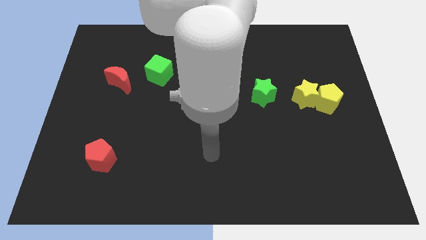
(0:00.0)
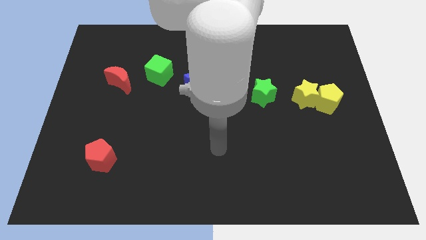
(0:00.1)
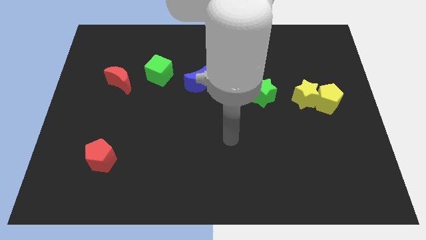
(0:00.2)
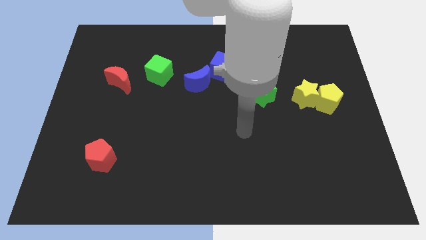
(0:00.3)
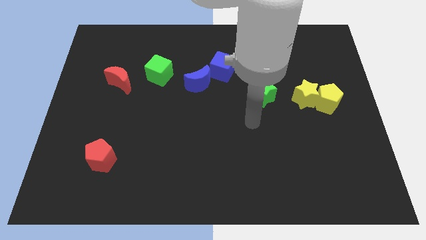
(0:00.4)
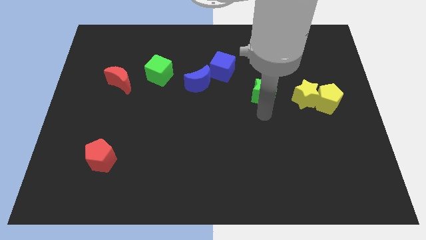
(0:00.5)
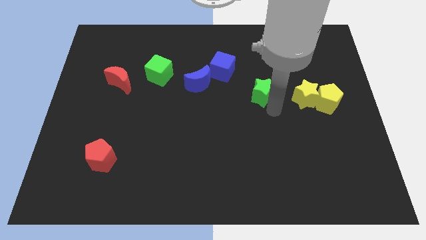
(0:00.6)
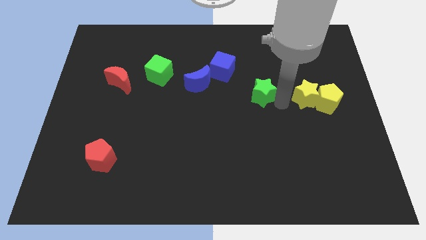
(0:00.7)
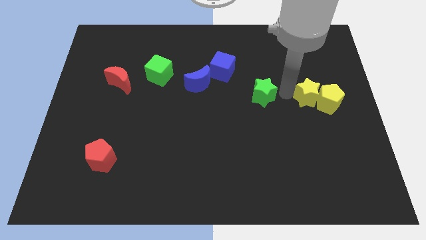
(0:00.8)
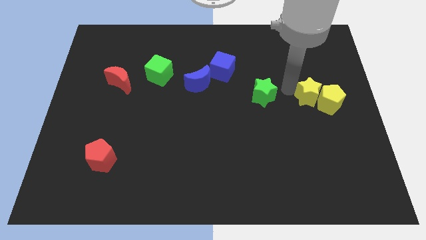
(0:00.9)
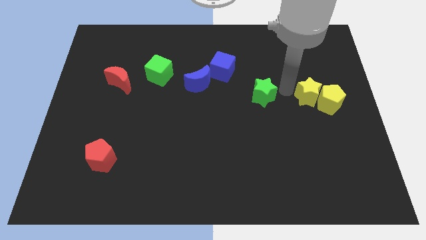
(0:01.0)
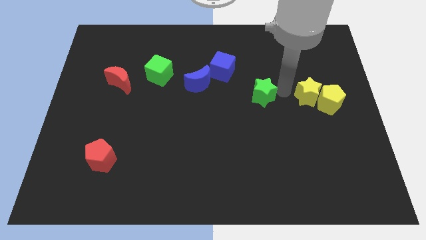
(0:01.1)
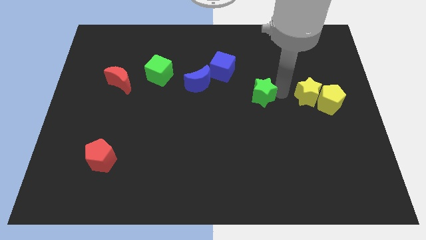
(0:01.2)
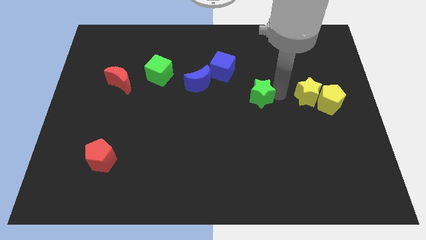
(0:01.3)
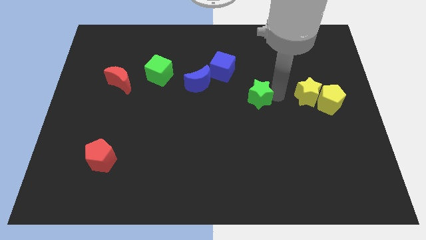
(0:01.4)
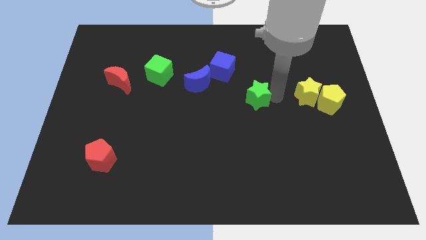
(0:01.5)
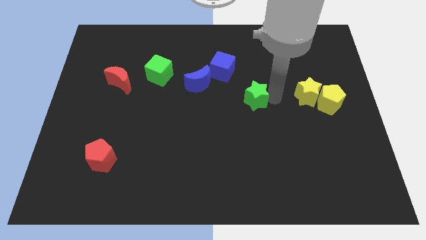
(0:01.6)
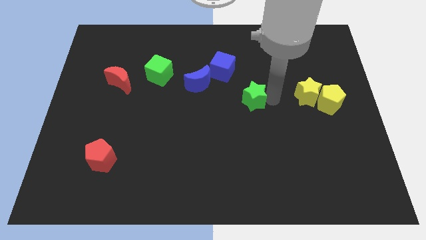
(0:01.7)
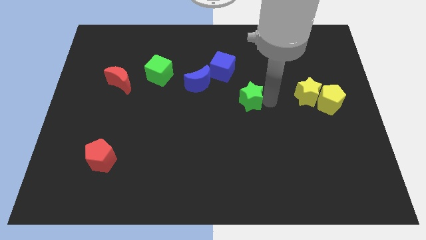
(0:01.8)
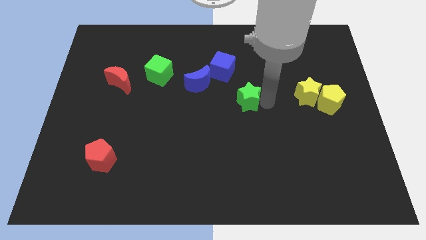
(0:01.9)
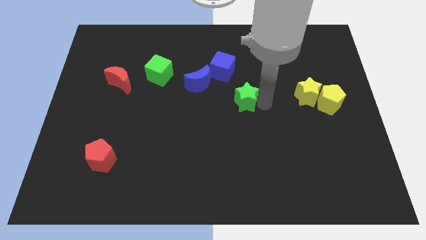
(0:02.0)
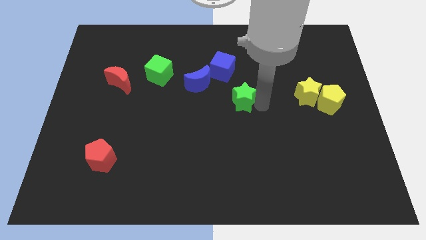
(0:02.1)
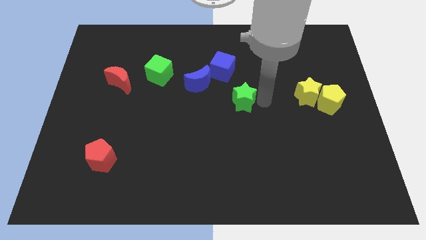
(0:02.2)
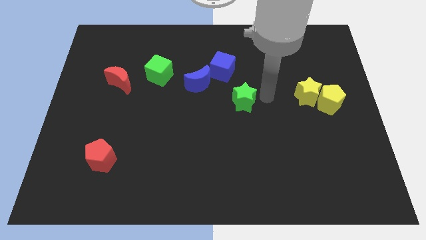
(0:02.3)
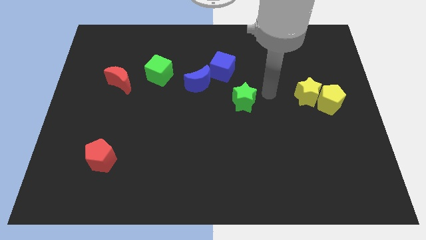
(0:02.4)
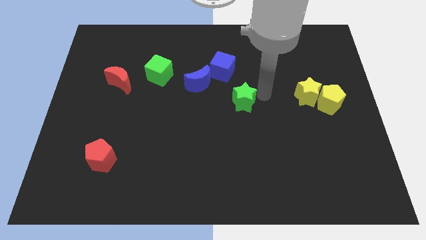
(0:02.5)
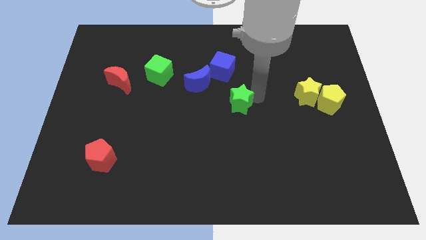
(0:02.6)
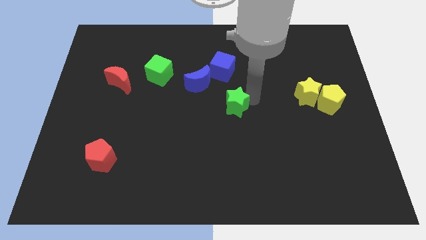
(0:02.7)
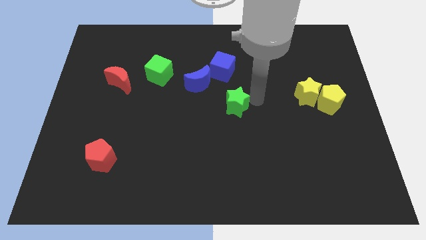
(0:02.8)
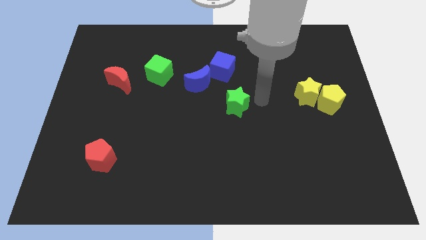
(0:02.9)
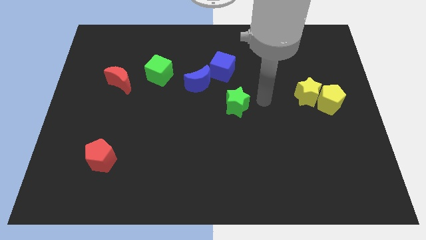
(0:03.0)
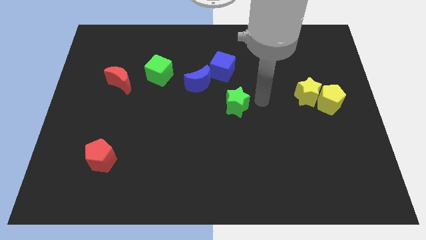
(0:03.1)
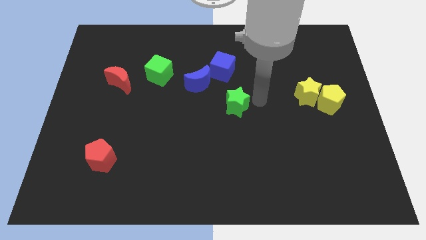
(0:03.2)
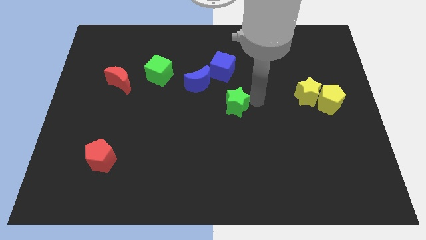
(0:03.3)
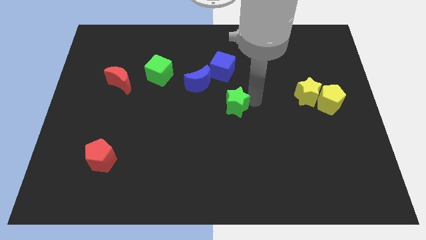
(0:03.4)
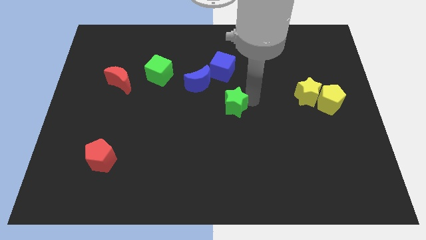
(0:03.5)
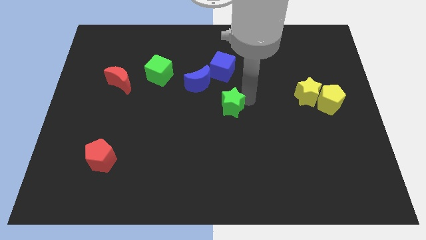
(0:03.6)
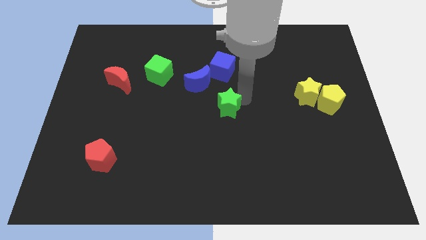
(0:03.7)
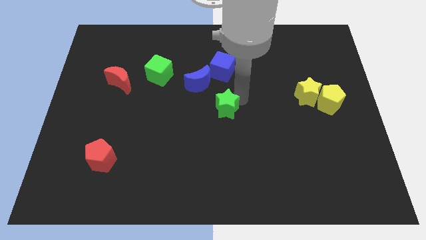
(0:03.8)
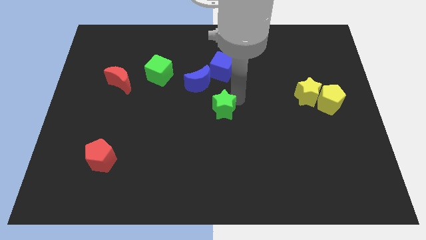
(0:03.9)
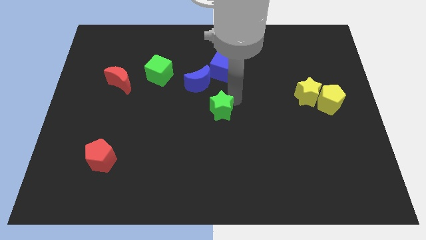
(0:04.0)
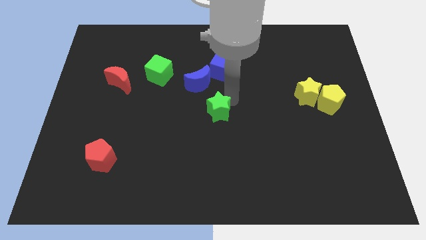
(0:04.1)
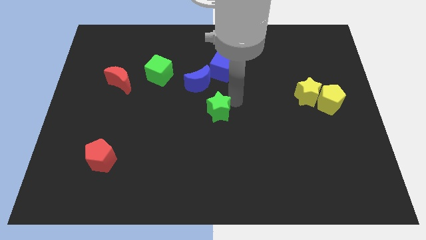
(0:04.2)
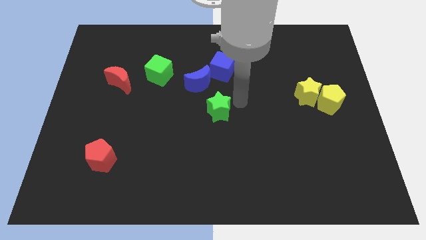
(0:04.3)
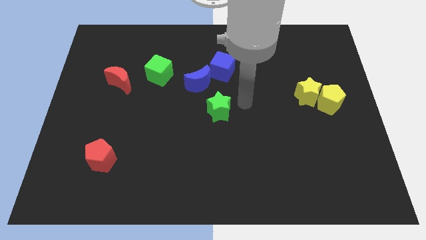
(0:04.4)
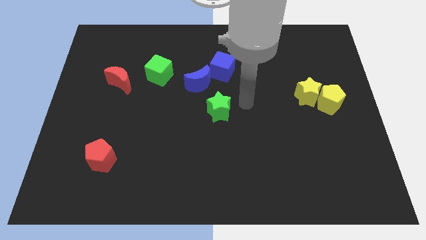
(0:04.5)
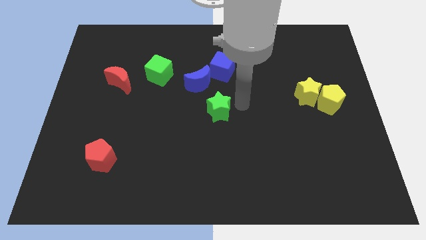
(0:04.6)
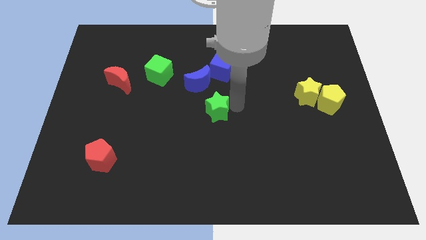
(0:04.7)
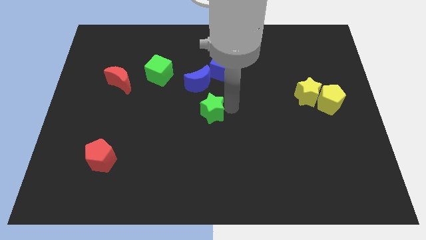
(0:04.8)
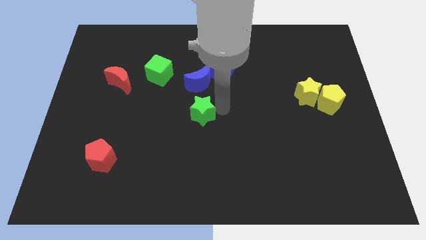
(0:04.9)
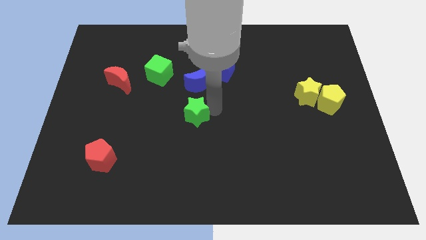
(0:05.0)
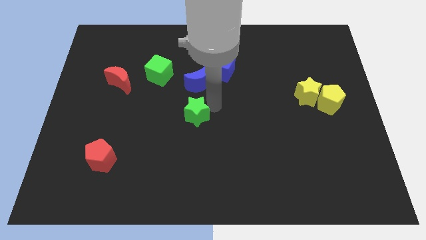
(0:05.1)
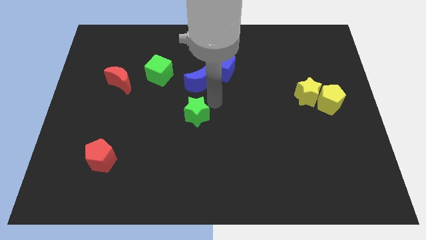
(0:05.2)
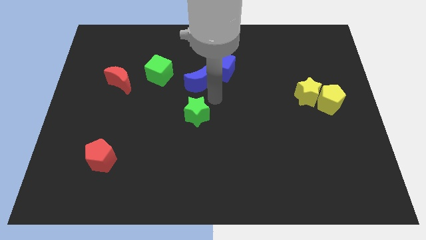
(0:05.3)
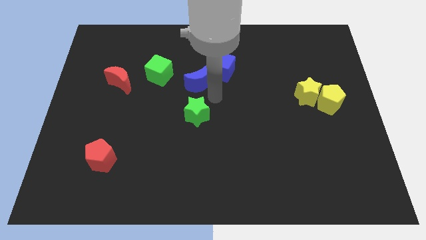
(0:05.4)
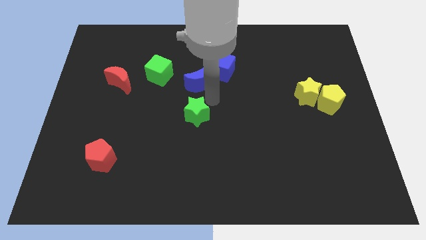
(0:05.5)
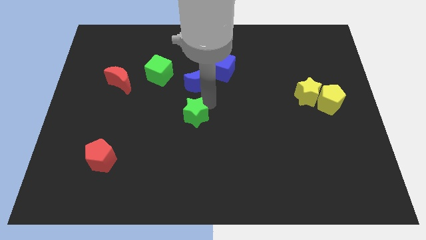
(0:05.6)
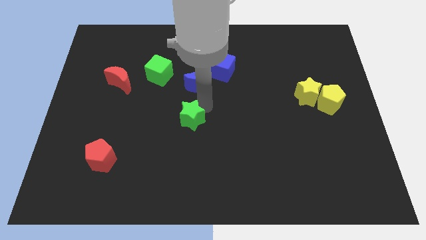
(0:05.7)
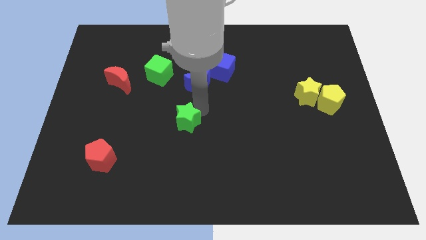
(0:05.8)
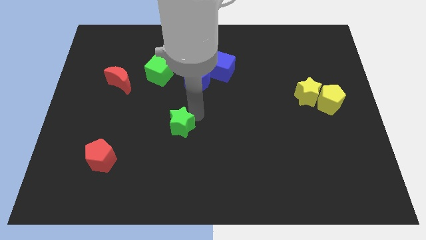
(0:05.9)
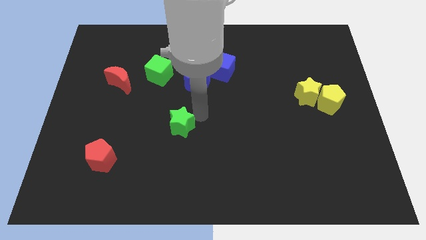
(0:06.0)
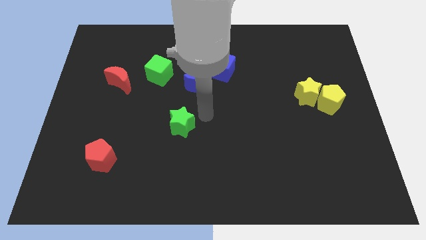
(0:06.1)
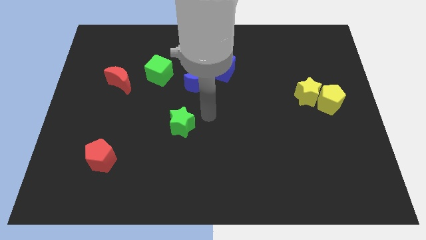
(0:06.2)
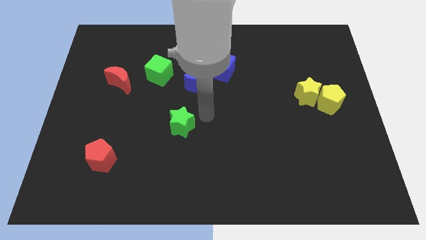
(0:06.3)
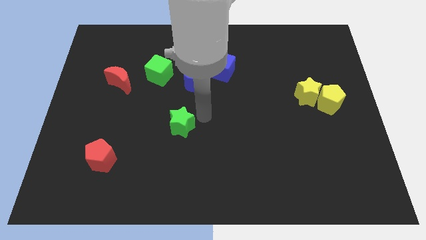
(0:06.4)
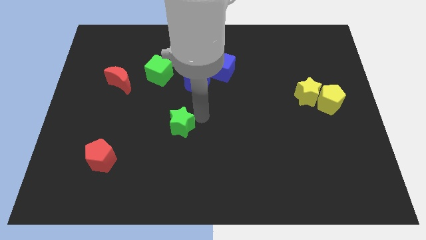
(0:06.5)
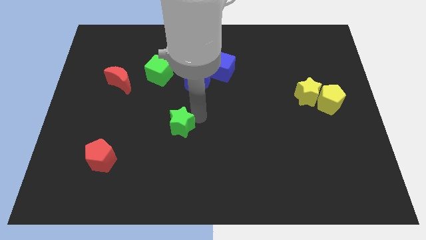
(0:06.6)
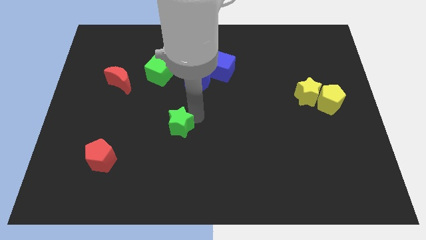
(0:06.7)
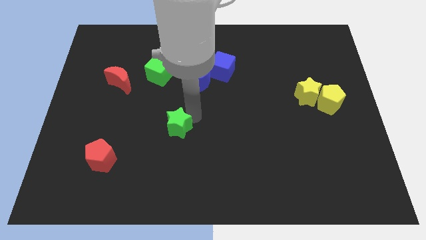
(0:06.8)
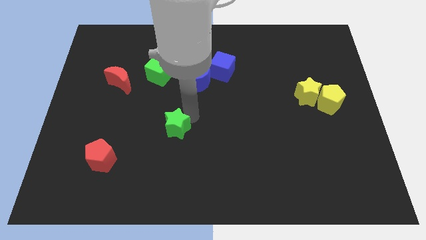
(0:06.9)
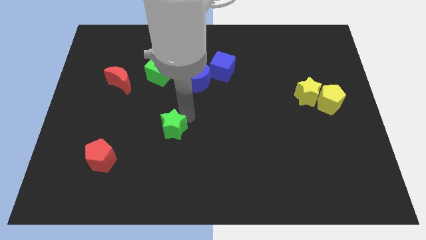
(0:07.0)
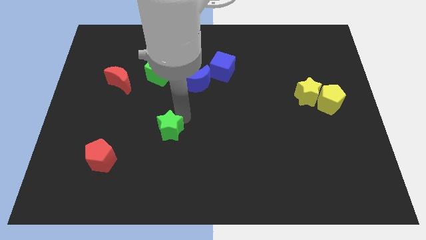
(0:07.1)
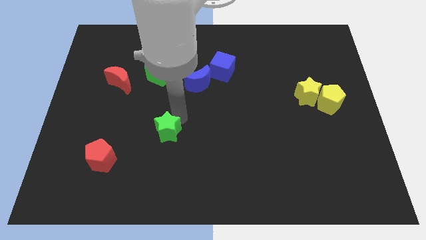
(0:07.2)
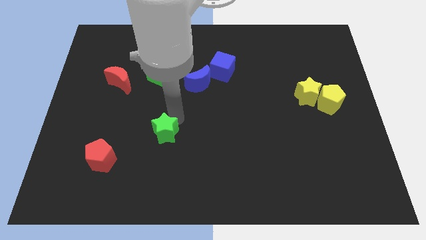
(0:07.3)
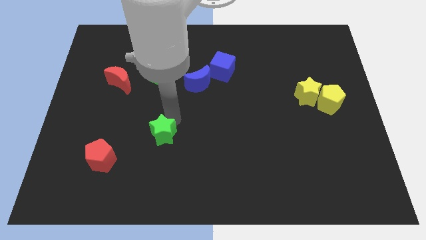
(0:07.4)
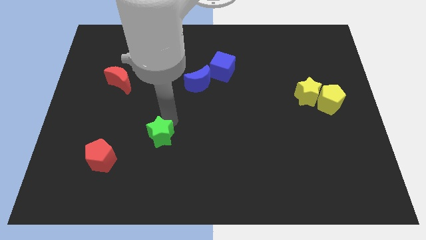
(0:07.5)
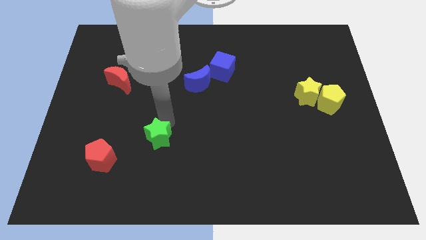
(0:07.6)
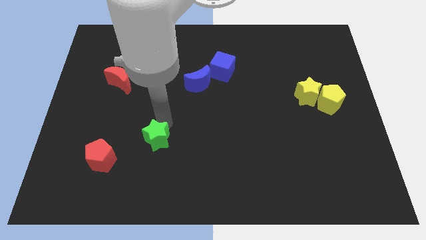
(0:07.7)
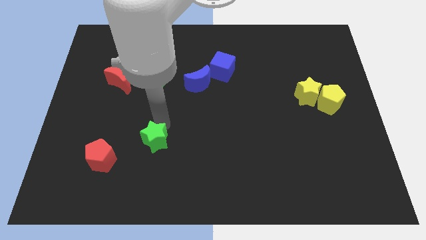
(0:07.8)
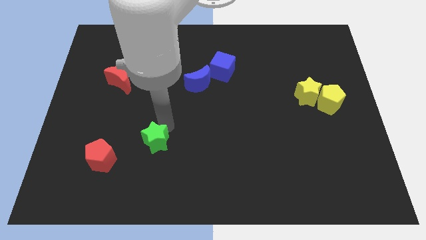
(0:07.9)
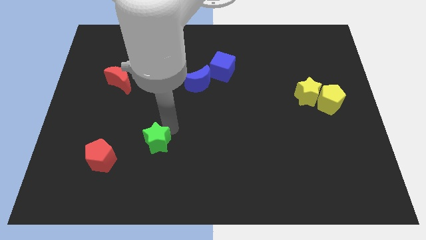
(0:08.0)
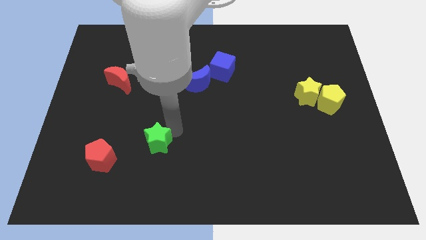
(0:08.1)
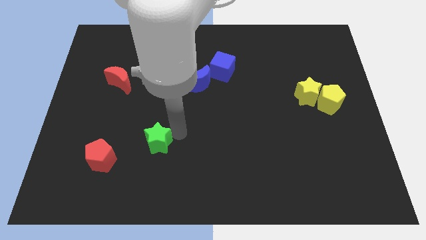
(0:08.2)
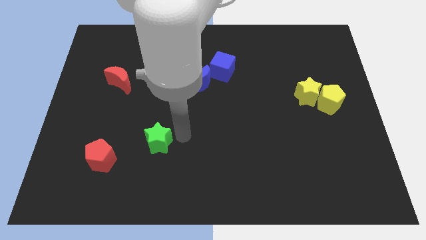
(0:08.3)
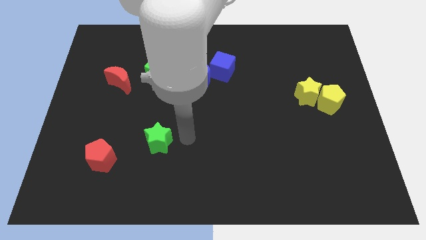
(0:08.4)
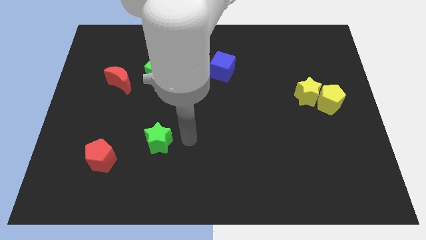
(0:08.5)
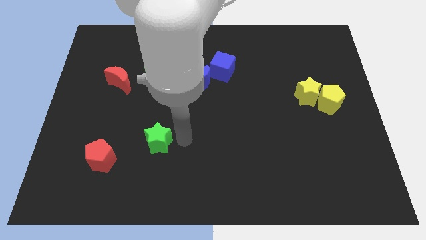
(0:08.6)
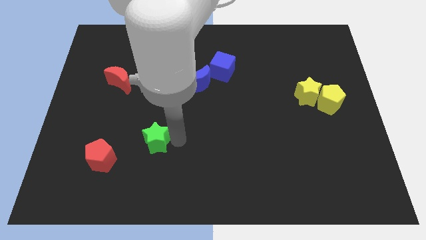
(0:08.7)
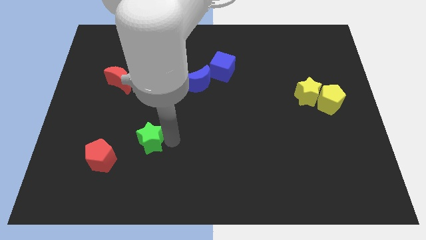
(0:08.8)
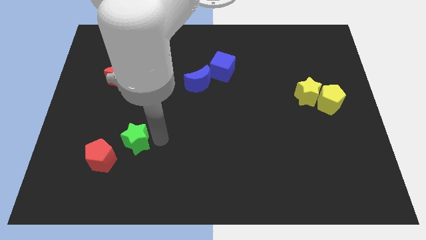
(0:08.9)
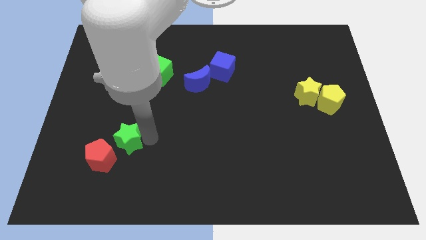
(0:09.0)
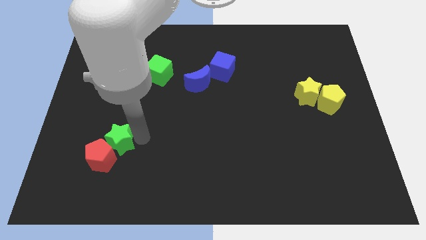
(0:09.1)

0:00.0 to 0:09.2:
slide the green star next to the red pentagon
